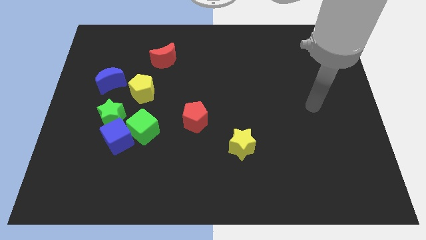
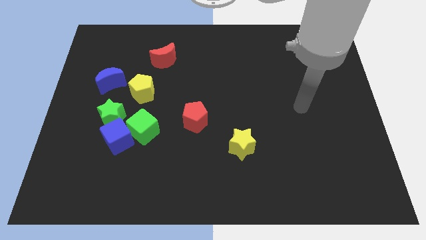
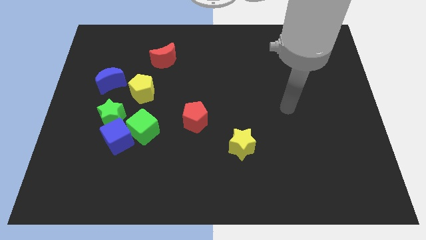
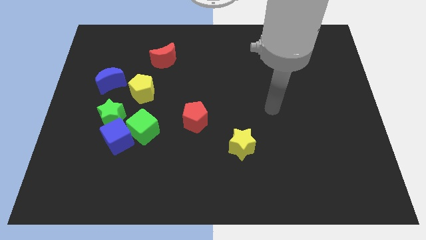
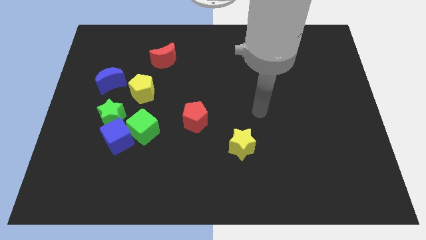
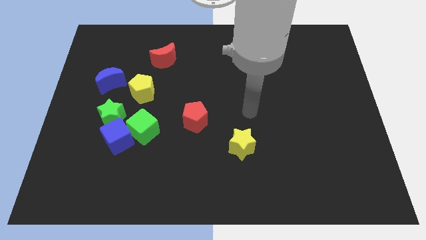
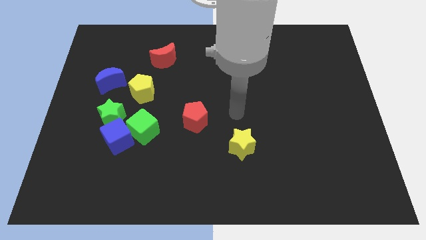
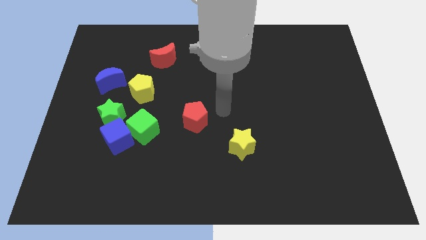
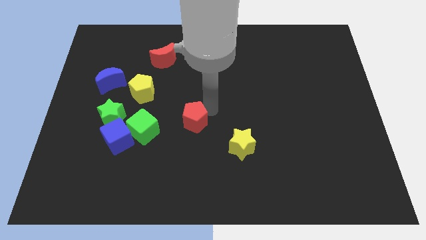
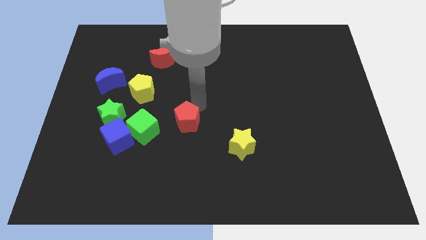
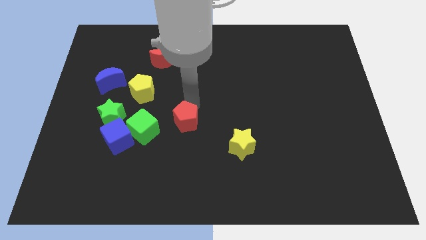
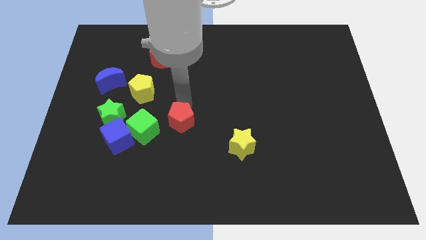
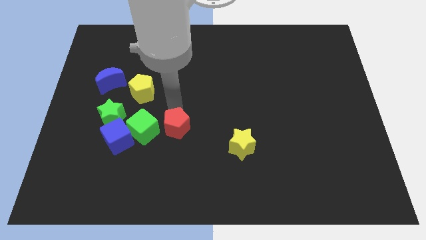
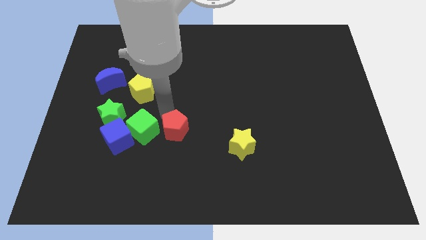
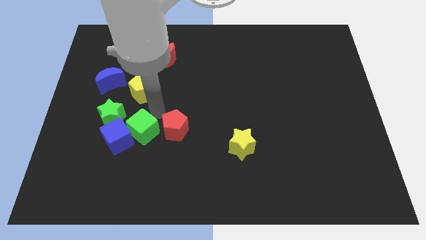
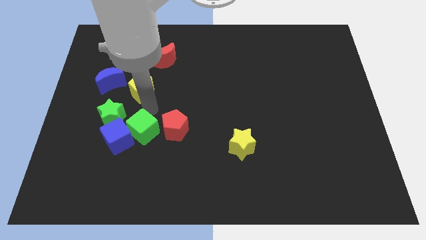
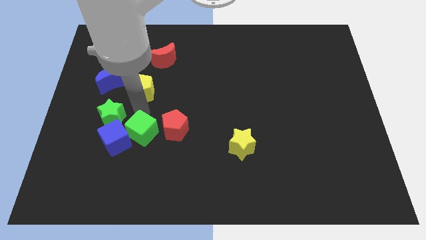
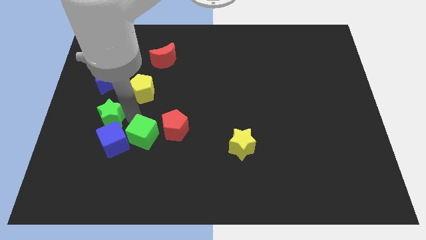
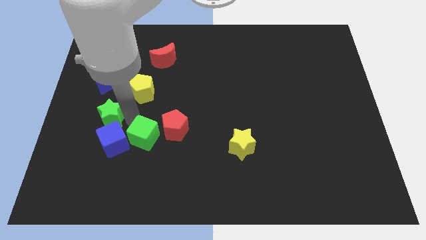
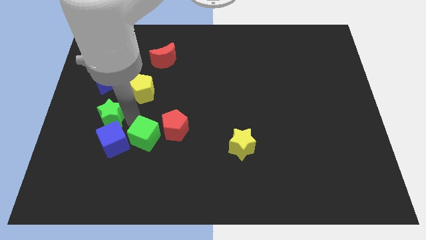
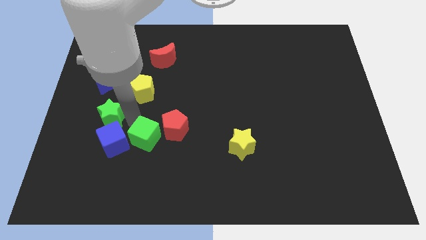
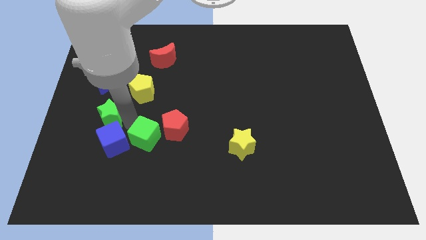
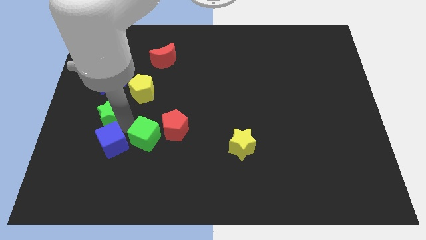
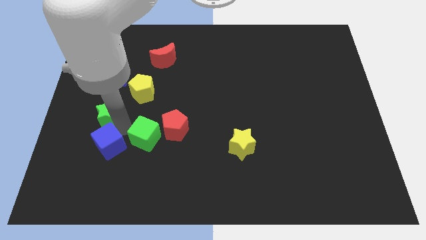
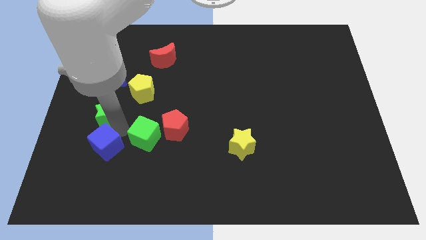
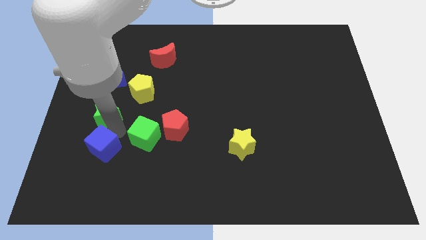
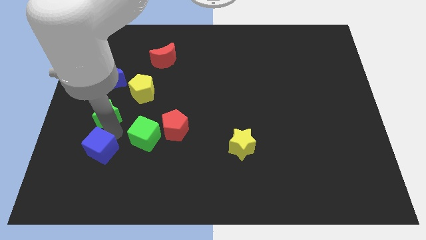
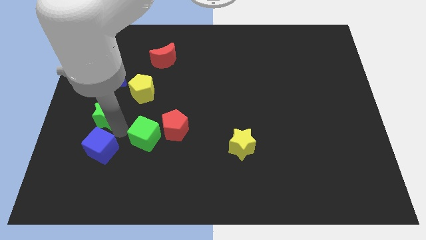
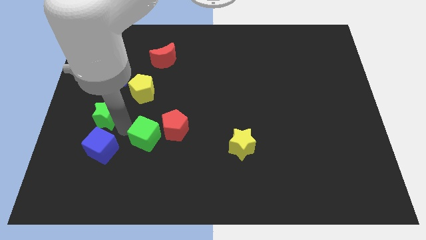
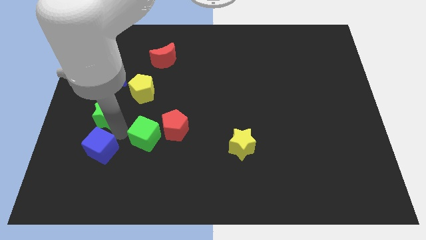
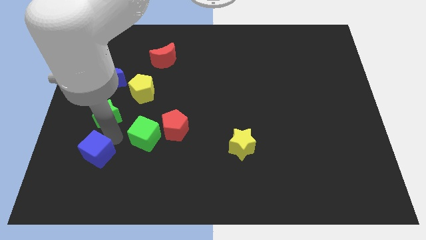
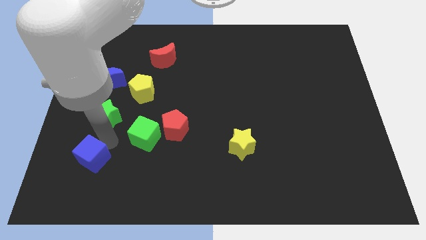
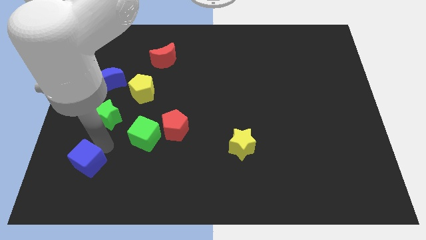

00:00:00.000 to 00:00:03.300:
pull the blue cube apart from the green cube and green star

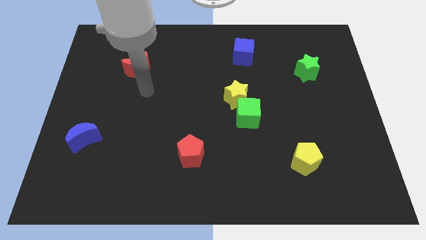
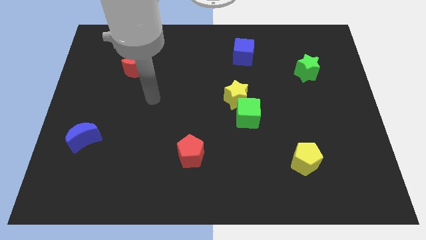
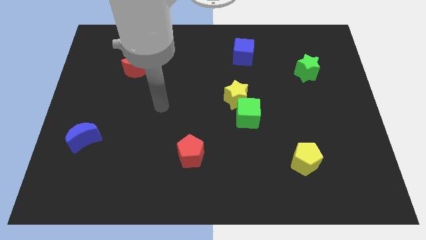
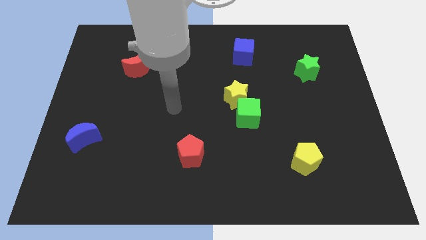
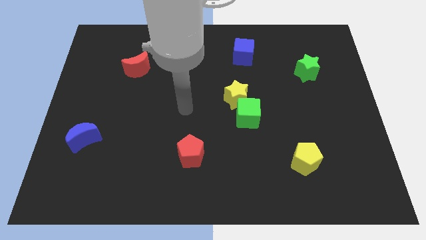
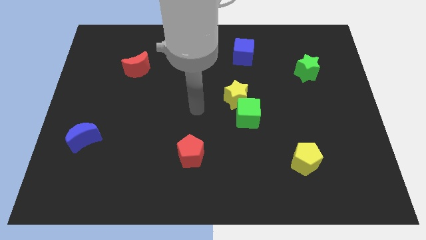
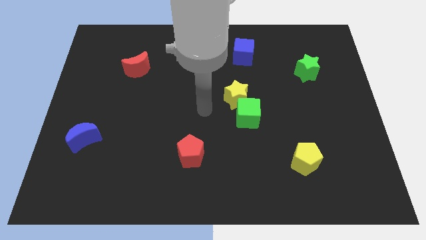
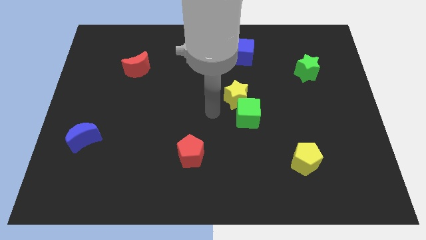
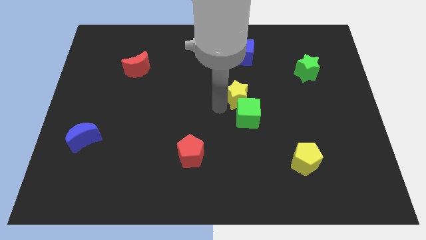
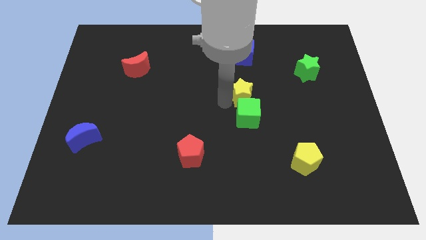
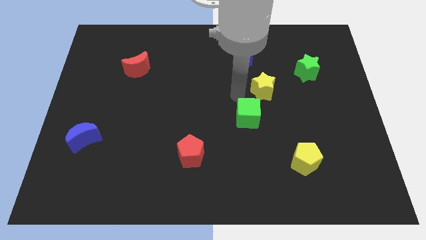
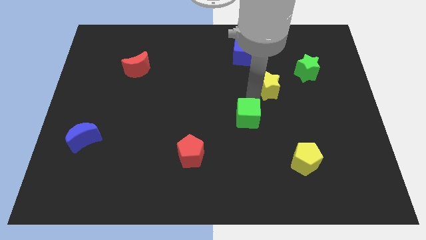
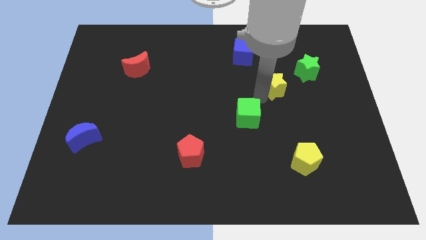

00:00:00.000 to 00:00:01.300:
move the green cube away from the yellow star

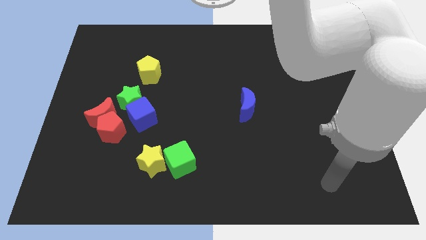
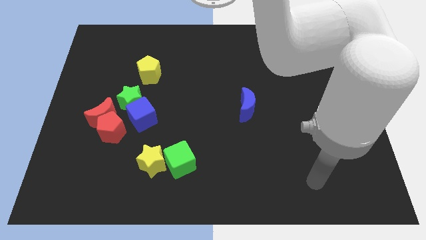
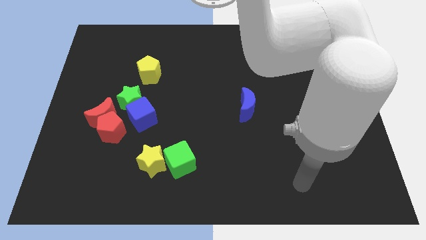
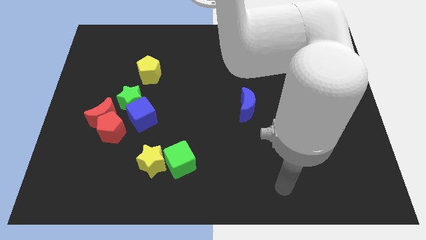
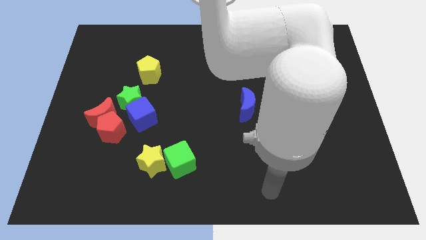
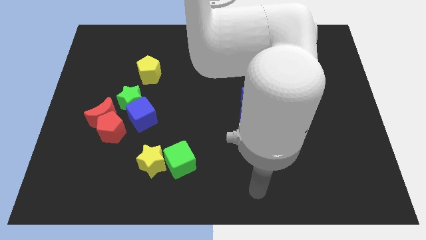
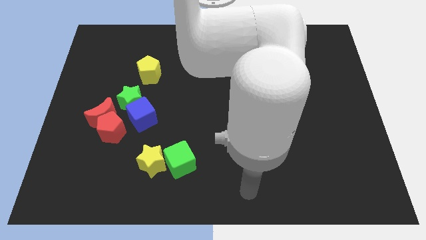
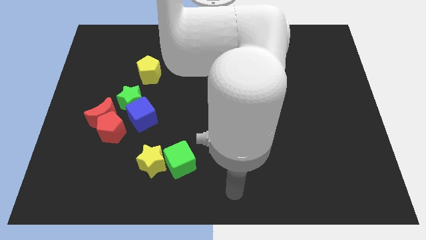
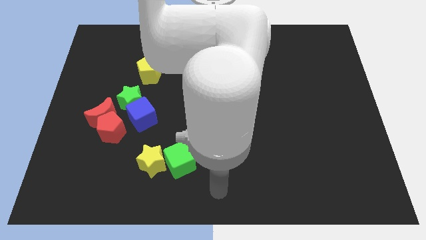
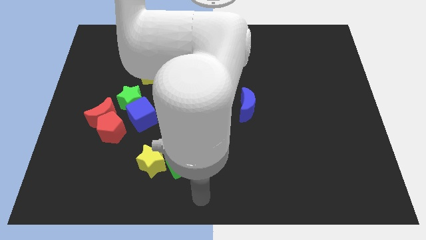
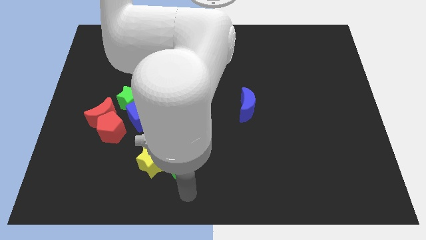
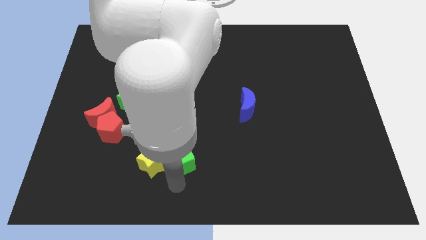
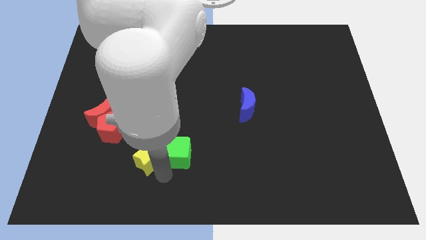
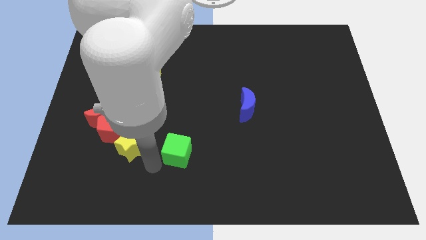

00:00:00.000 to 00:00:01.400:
pull the green cube apart from the yellow star

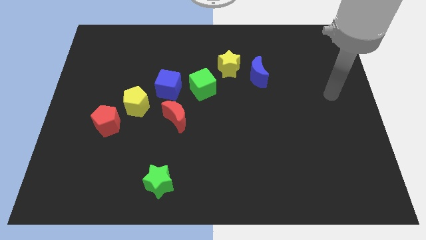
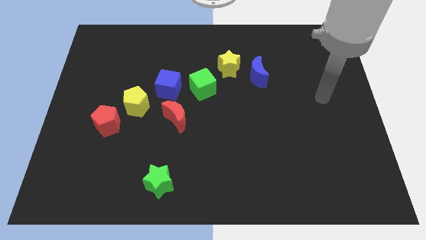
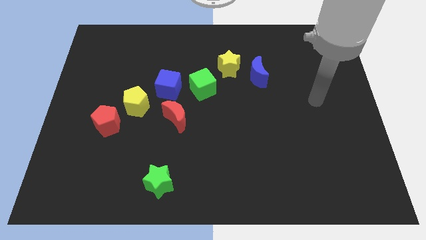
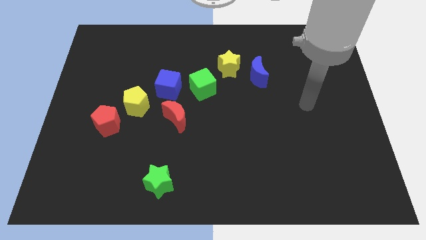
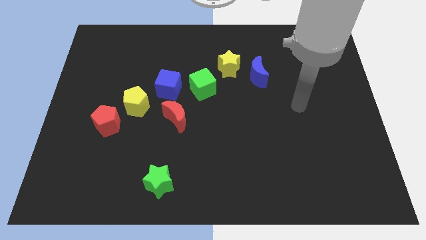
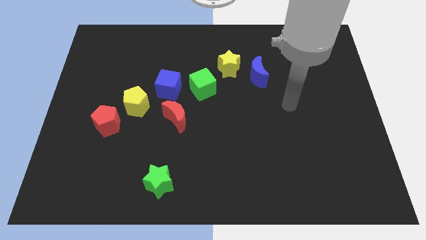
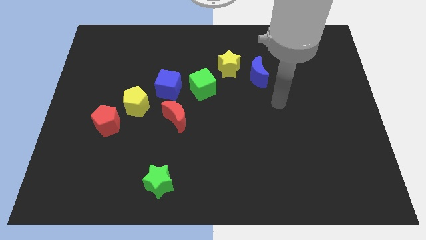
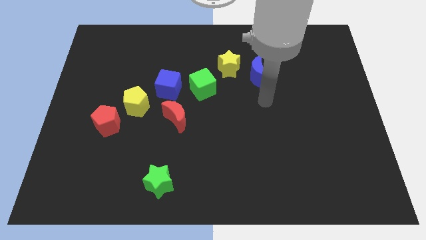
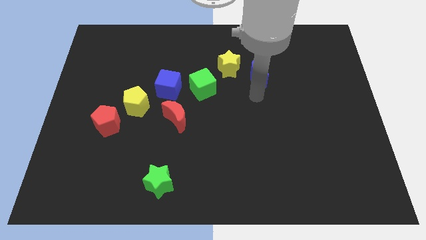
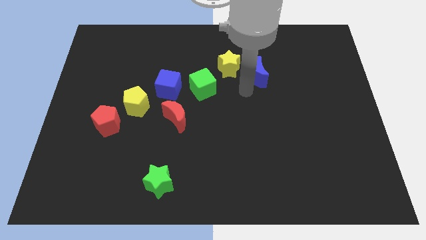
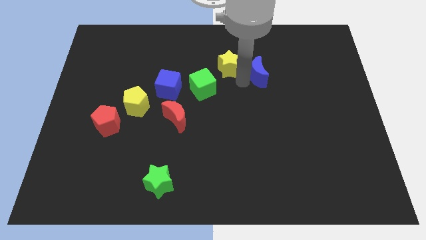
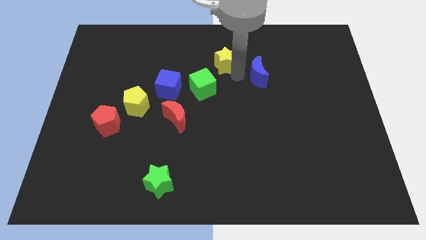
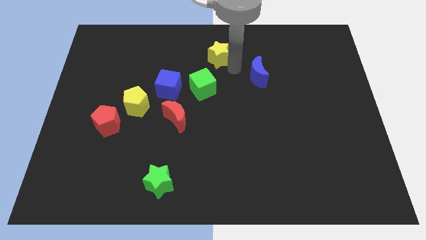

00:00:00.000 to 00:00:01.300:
separate the blue moon from the yellow star

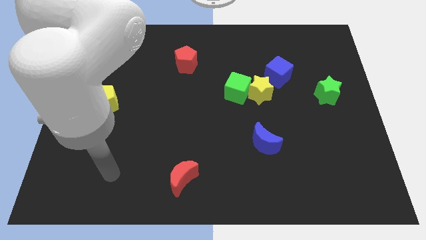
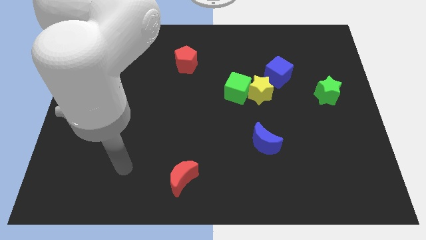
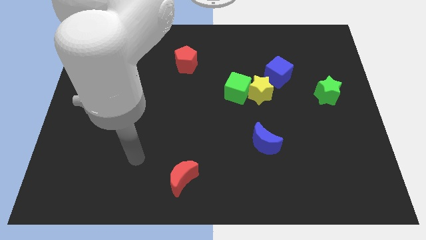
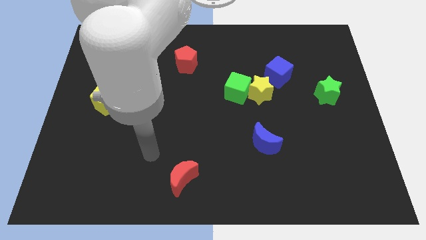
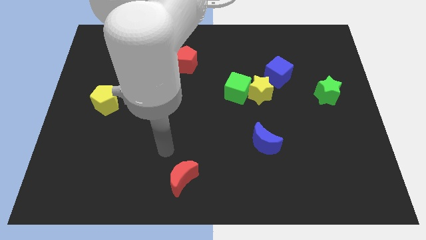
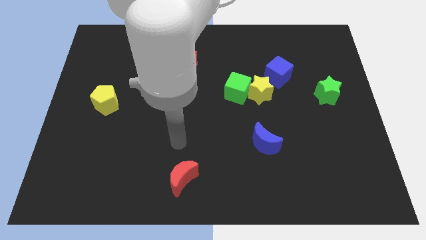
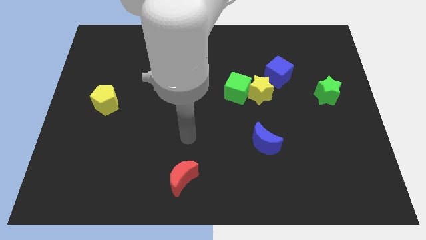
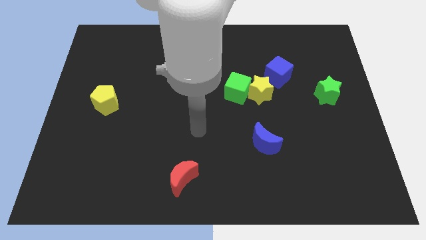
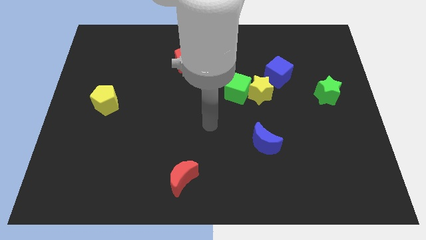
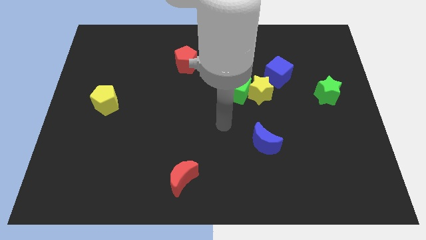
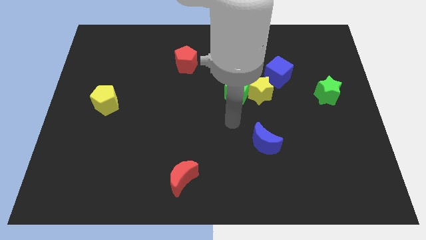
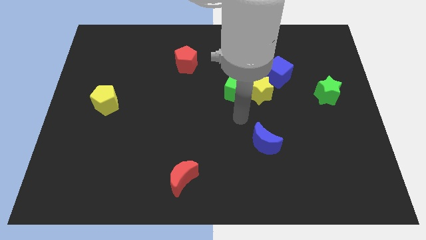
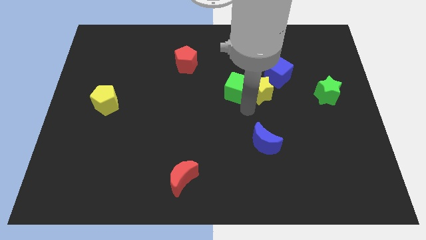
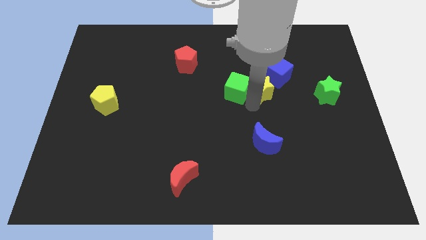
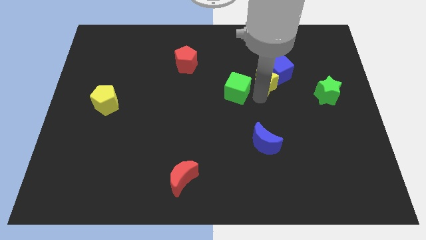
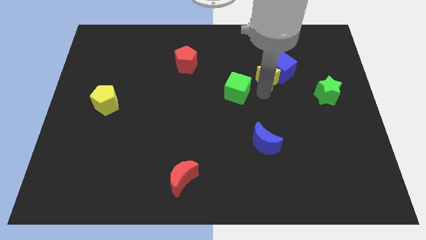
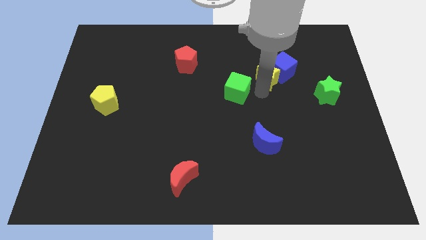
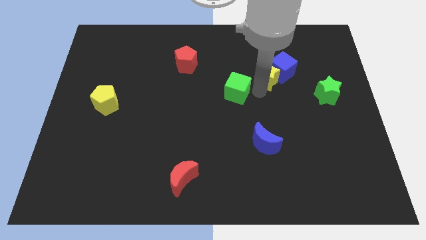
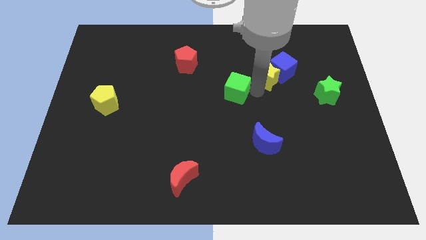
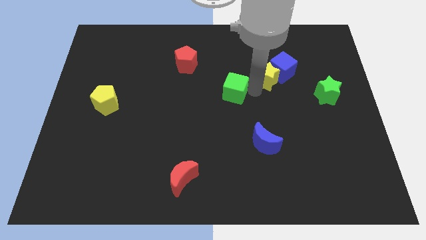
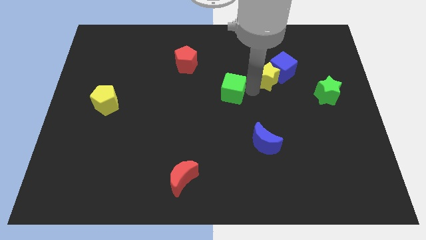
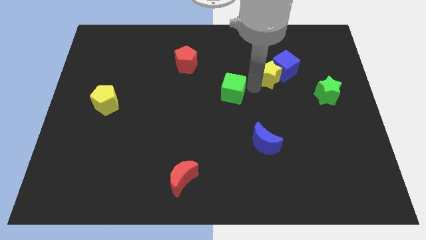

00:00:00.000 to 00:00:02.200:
separate the green cube from the yellow star
